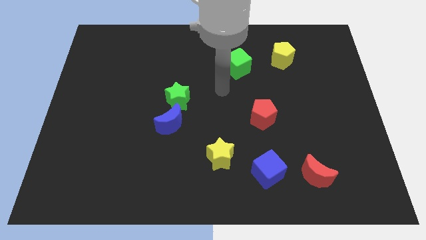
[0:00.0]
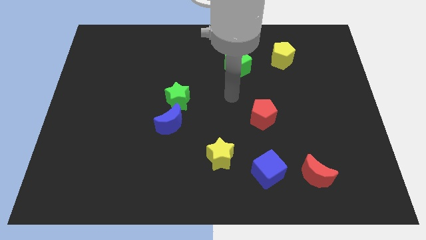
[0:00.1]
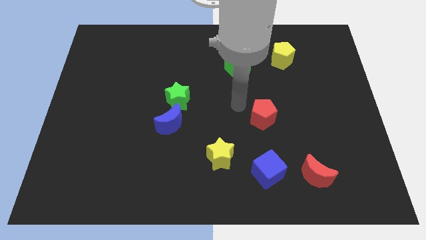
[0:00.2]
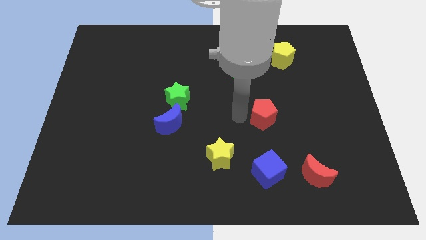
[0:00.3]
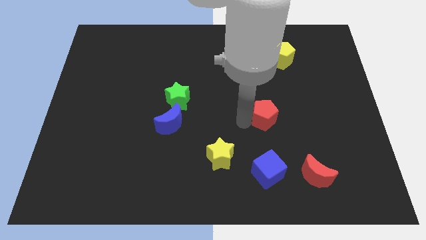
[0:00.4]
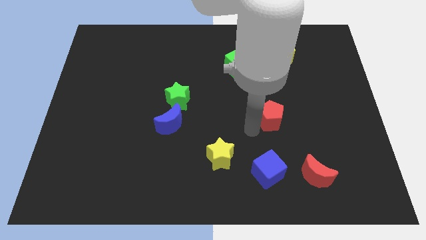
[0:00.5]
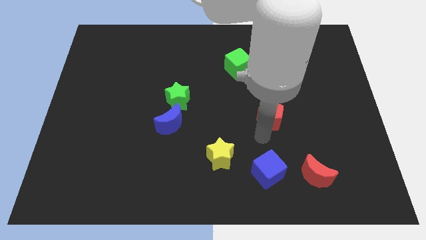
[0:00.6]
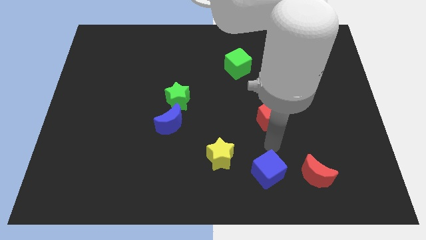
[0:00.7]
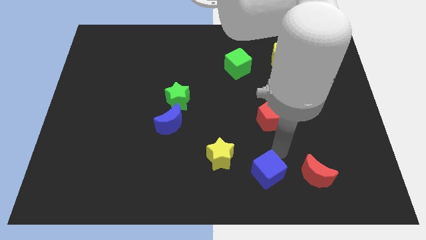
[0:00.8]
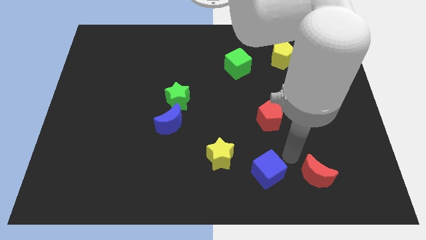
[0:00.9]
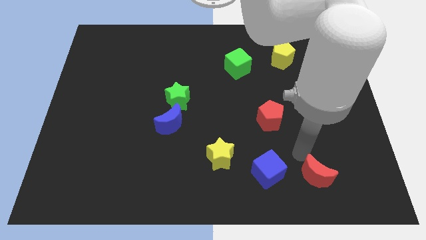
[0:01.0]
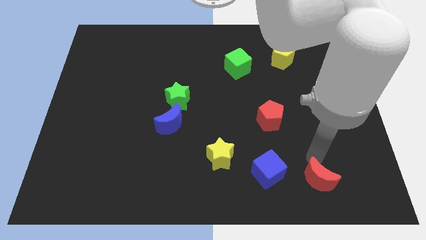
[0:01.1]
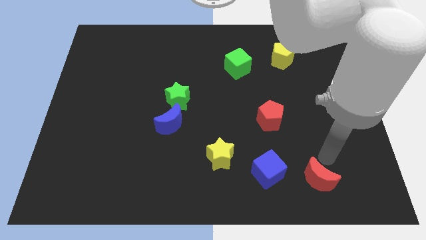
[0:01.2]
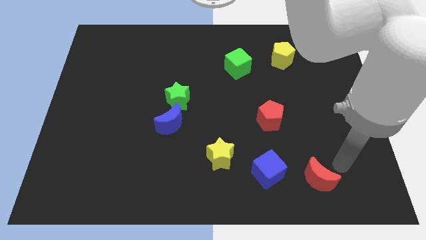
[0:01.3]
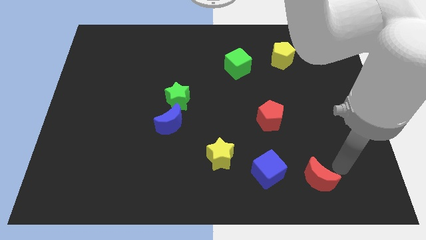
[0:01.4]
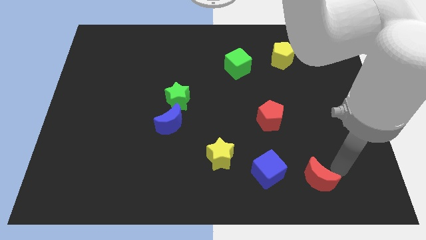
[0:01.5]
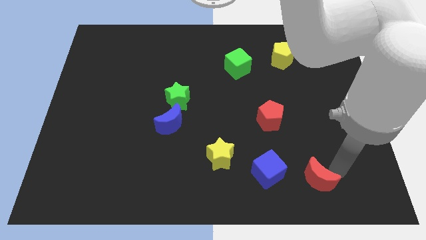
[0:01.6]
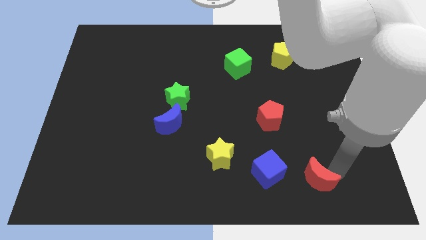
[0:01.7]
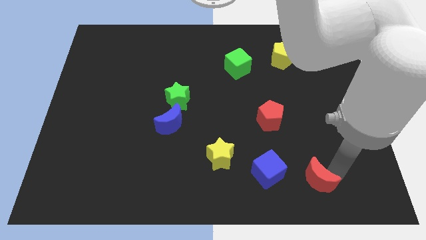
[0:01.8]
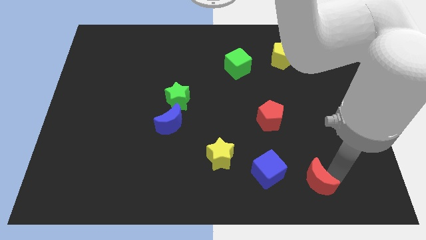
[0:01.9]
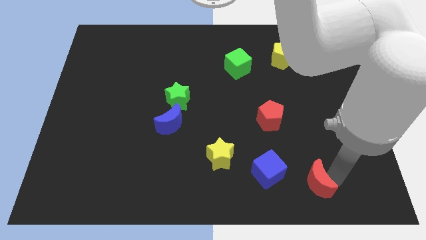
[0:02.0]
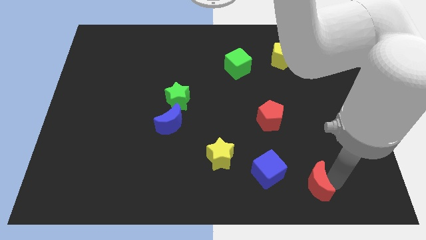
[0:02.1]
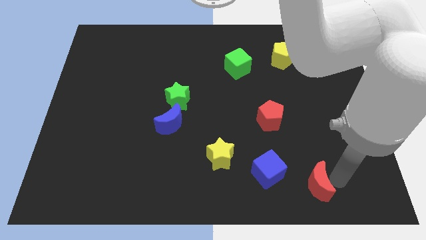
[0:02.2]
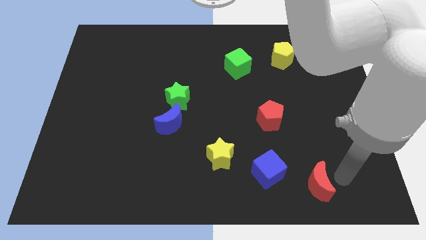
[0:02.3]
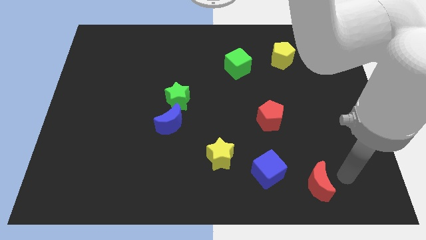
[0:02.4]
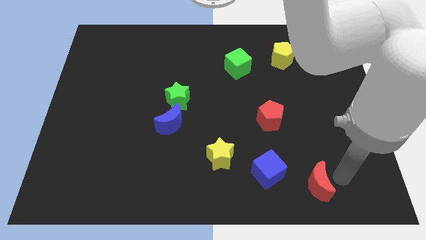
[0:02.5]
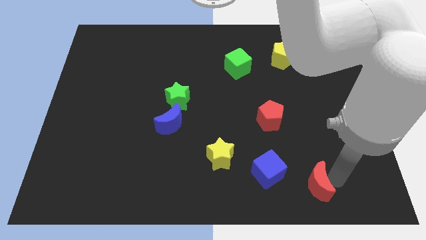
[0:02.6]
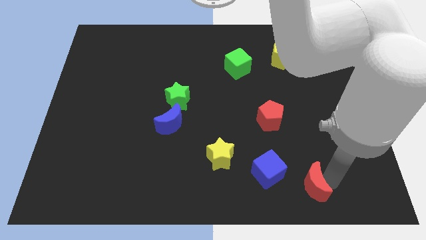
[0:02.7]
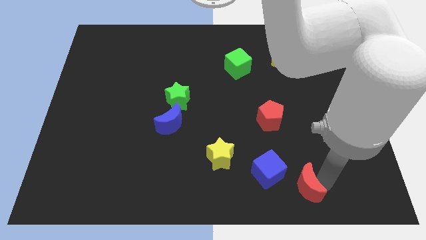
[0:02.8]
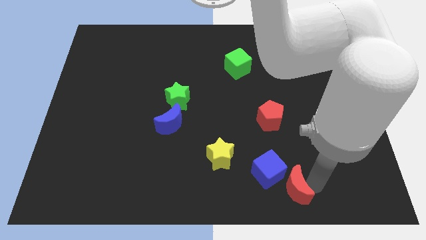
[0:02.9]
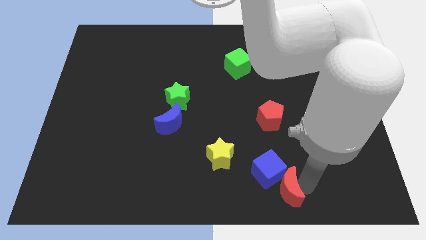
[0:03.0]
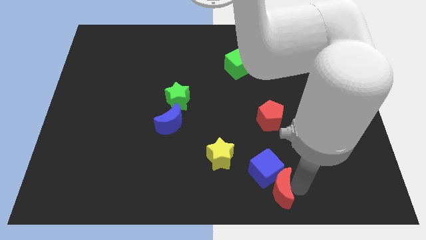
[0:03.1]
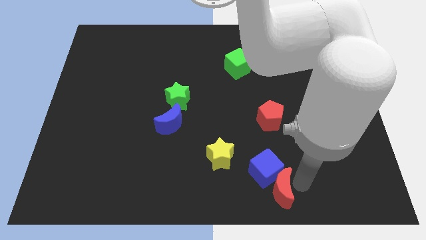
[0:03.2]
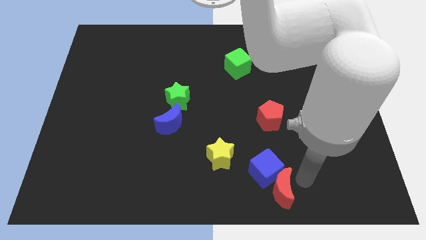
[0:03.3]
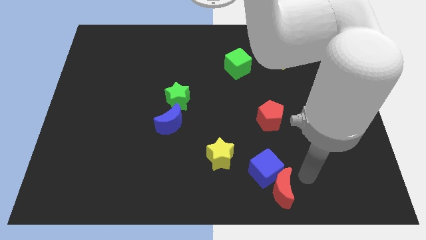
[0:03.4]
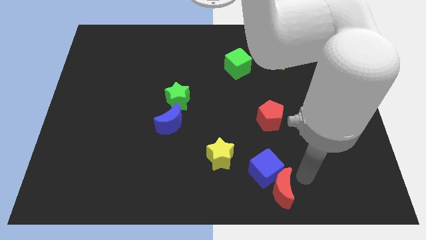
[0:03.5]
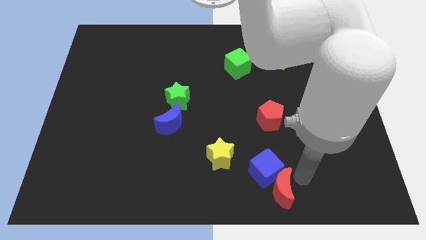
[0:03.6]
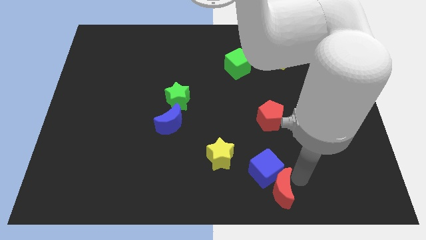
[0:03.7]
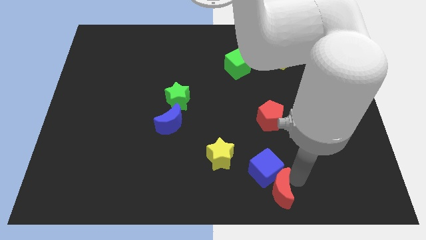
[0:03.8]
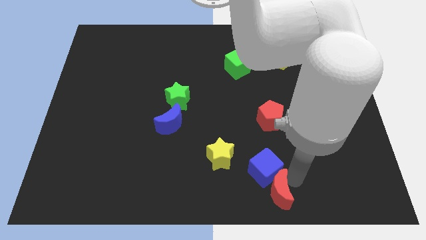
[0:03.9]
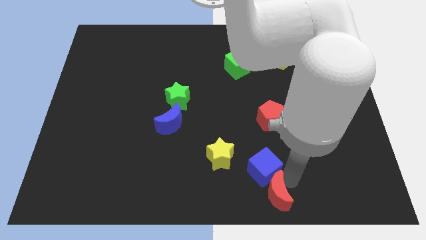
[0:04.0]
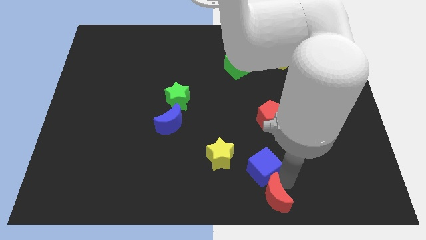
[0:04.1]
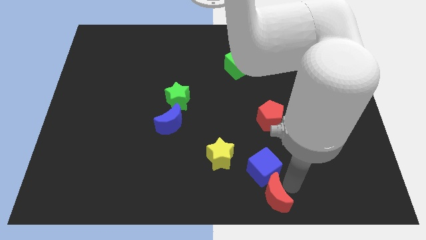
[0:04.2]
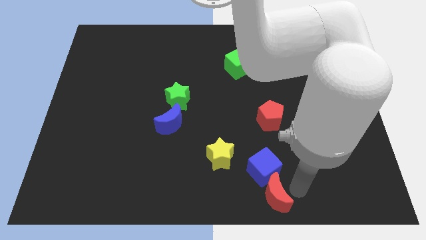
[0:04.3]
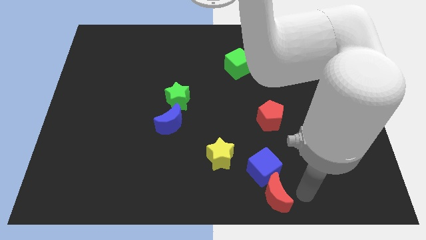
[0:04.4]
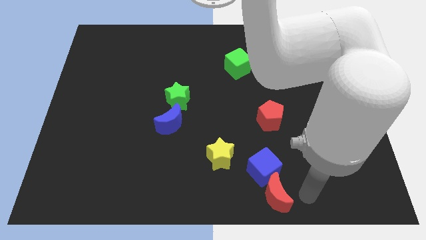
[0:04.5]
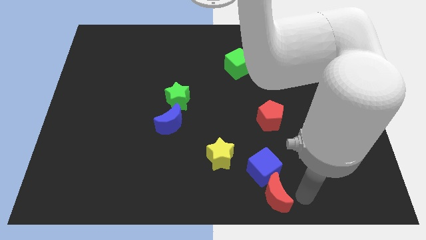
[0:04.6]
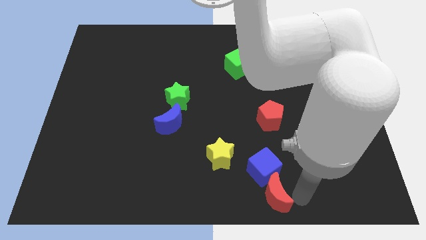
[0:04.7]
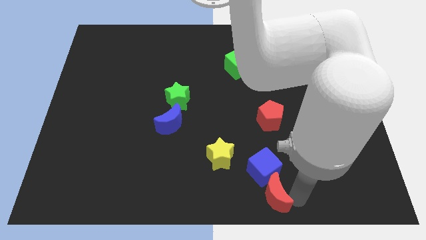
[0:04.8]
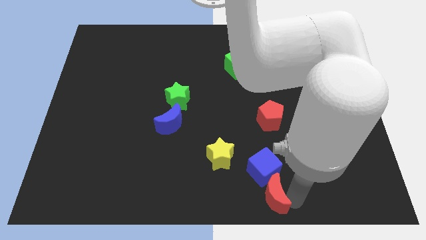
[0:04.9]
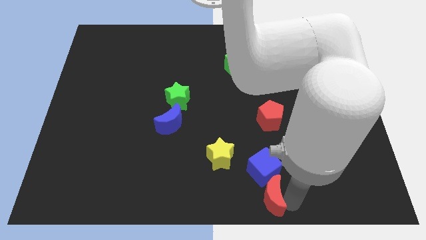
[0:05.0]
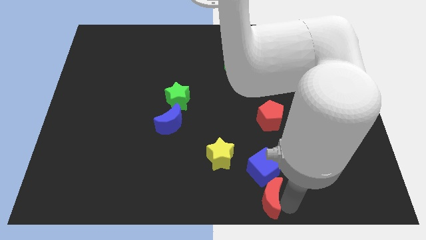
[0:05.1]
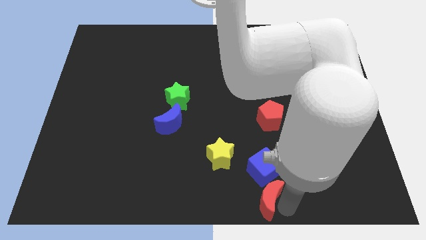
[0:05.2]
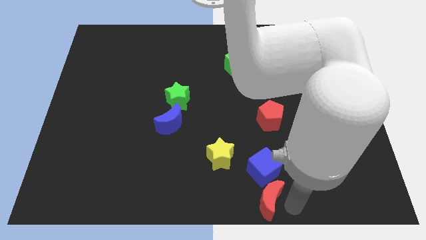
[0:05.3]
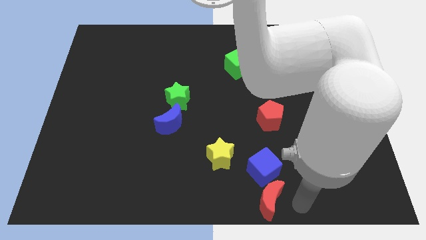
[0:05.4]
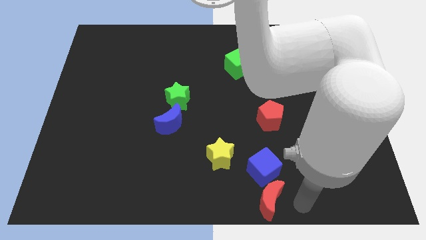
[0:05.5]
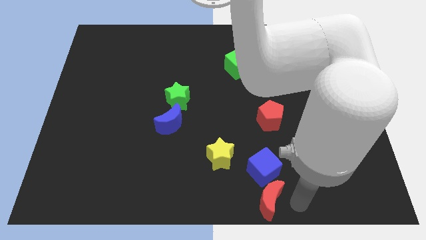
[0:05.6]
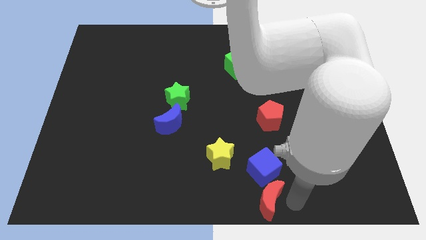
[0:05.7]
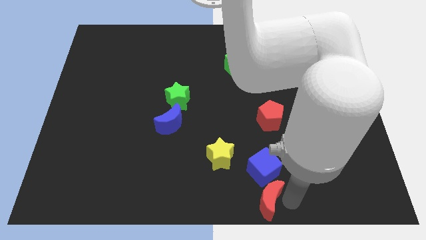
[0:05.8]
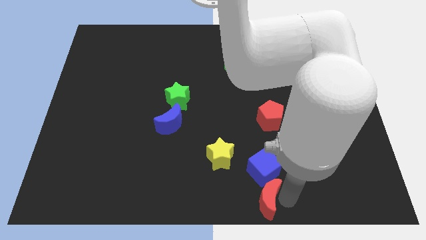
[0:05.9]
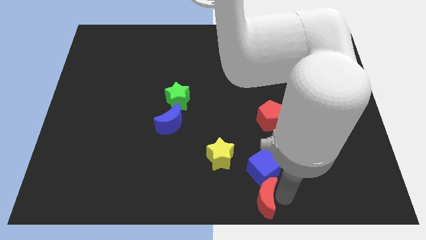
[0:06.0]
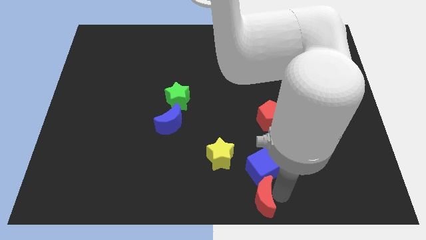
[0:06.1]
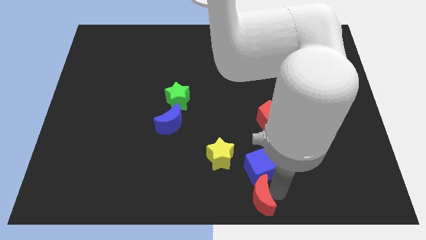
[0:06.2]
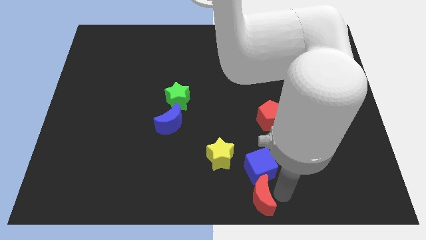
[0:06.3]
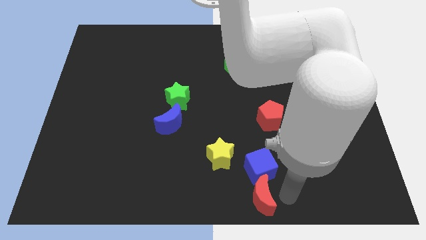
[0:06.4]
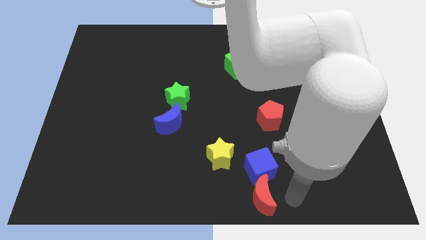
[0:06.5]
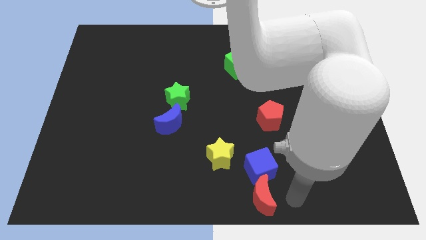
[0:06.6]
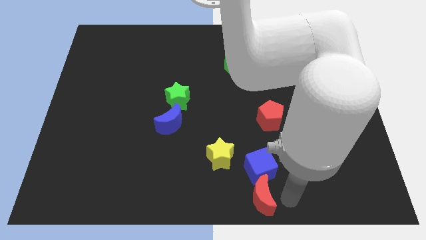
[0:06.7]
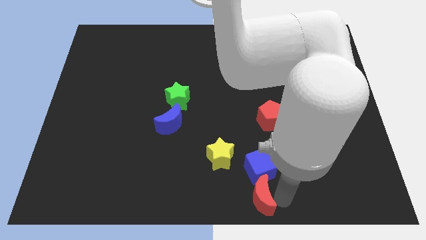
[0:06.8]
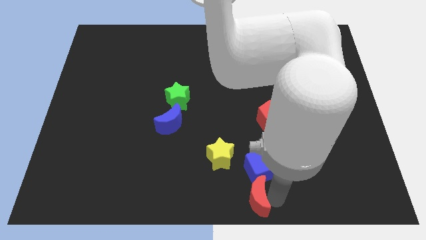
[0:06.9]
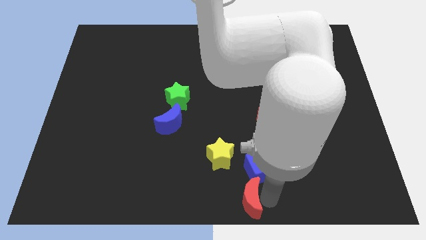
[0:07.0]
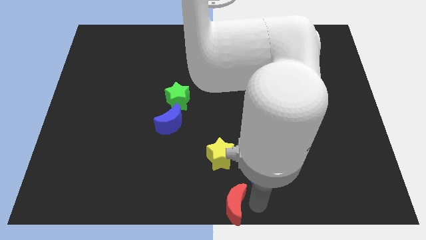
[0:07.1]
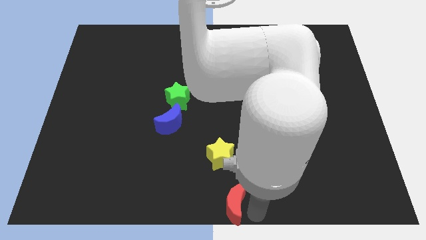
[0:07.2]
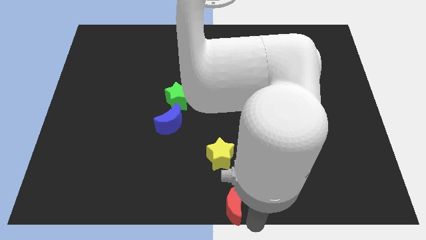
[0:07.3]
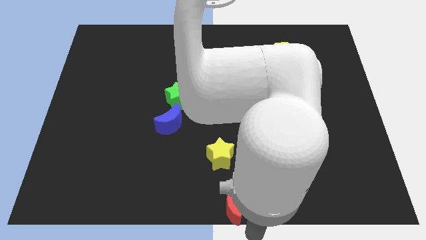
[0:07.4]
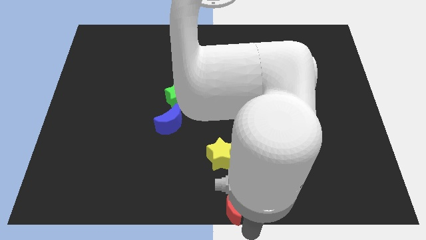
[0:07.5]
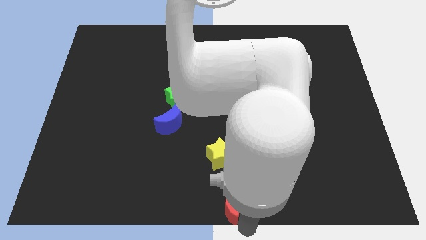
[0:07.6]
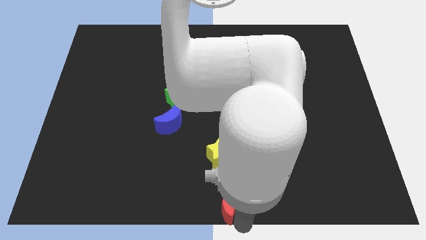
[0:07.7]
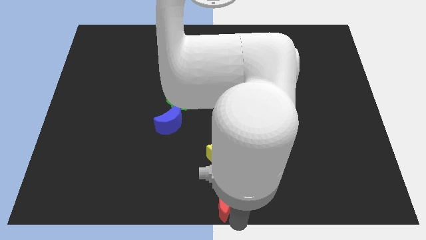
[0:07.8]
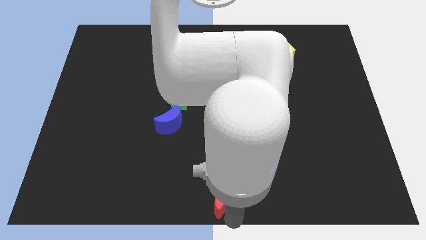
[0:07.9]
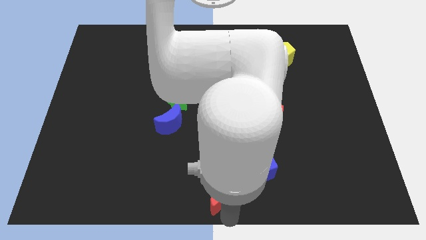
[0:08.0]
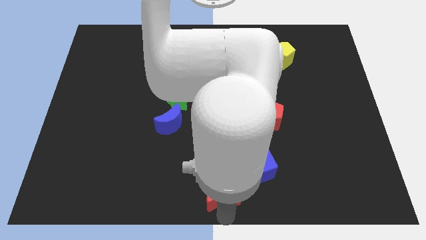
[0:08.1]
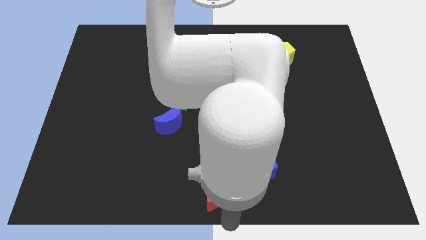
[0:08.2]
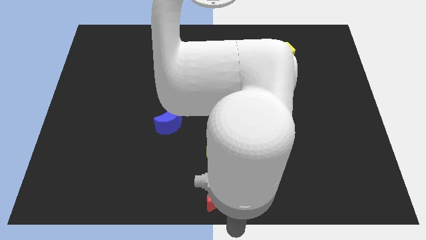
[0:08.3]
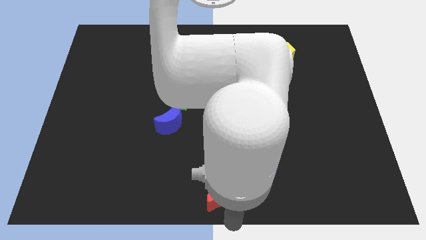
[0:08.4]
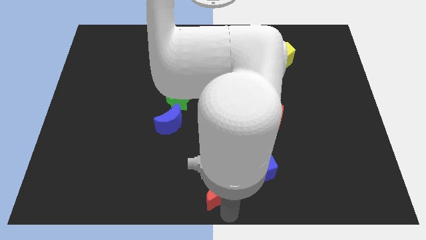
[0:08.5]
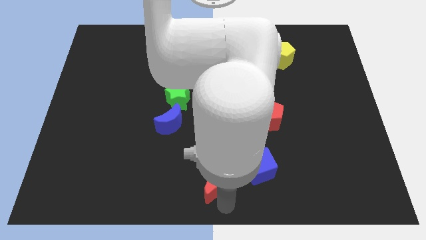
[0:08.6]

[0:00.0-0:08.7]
push the red moon just left of the blue cube
